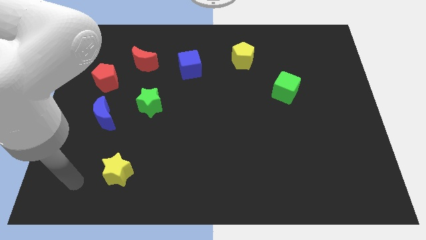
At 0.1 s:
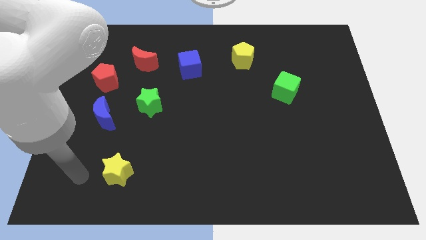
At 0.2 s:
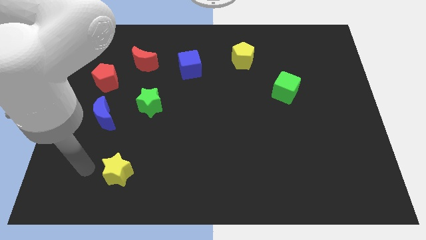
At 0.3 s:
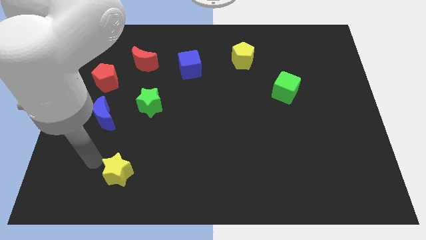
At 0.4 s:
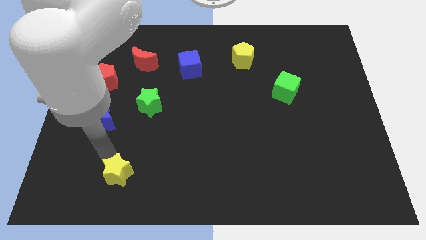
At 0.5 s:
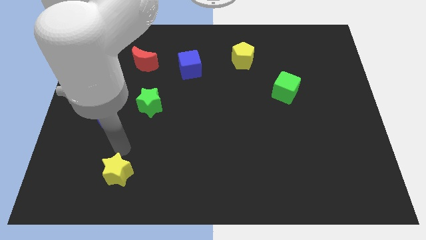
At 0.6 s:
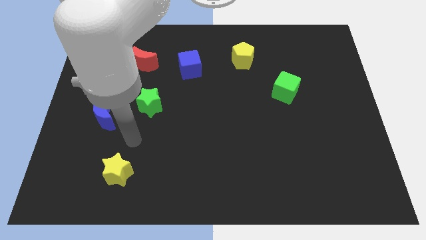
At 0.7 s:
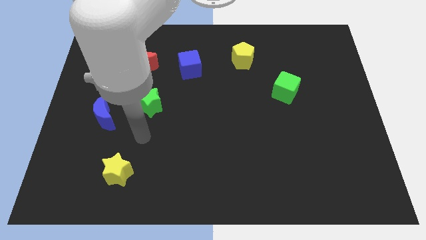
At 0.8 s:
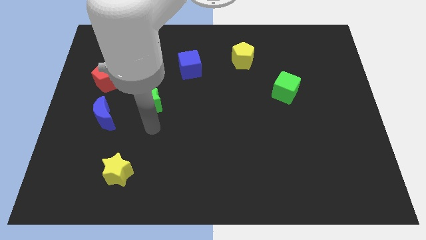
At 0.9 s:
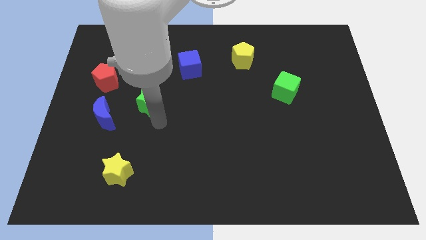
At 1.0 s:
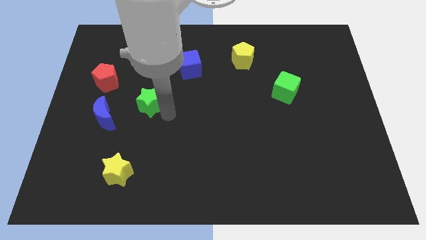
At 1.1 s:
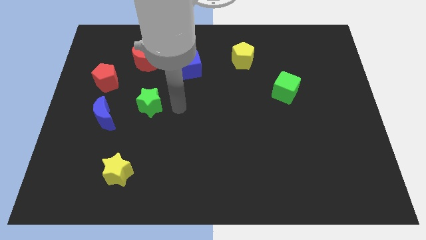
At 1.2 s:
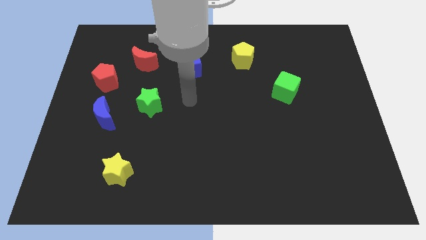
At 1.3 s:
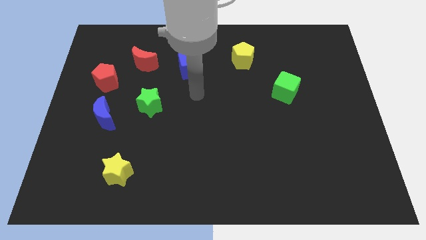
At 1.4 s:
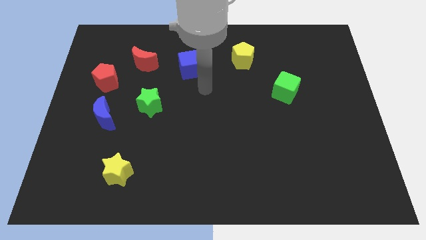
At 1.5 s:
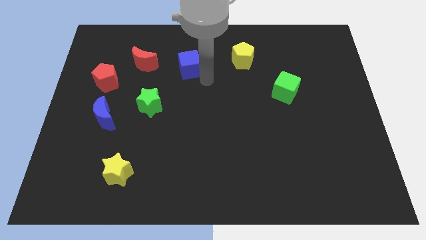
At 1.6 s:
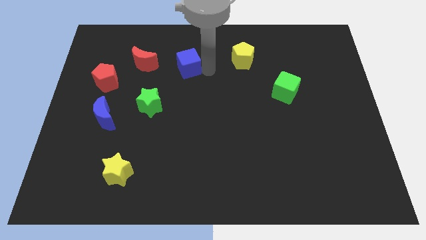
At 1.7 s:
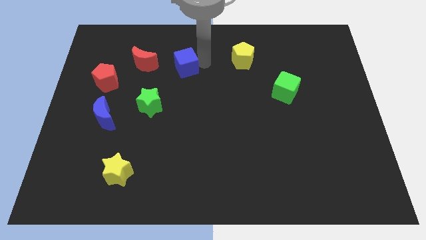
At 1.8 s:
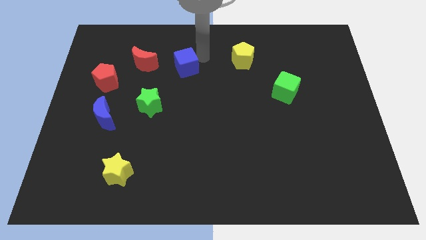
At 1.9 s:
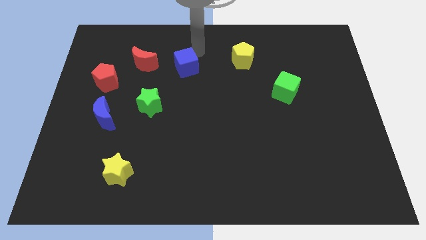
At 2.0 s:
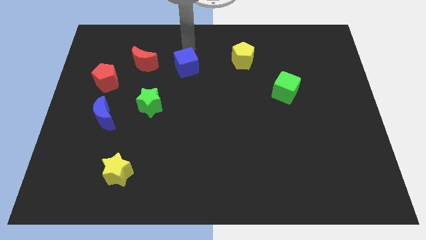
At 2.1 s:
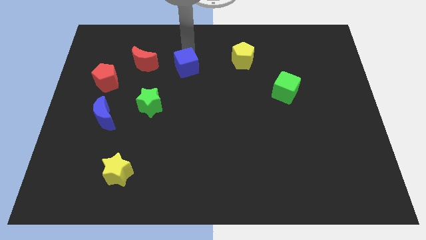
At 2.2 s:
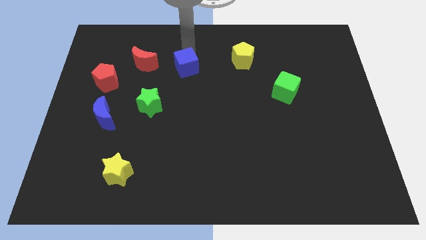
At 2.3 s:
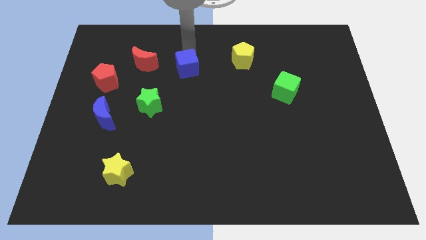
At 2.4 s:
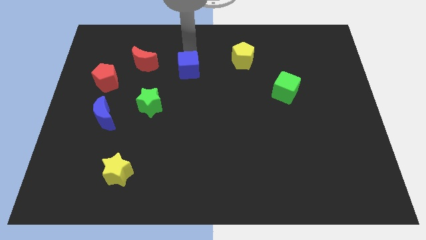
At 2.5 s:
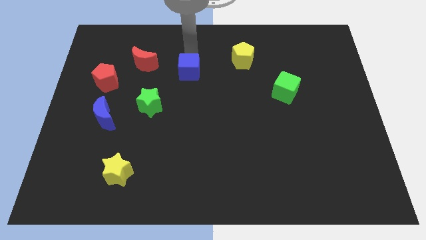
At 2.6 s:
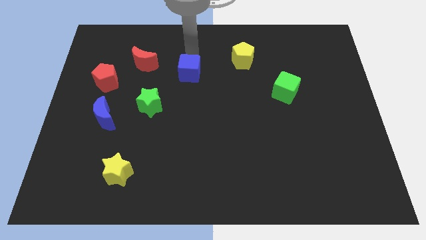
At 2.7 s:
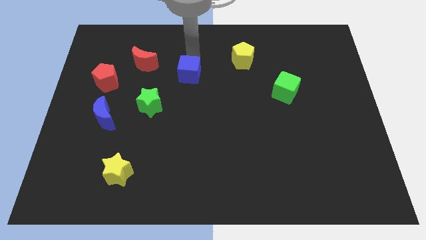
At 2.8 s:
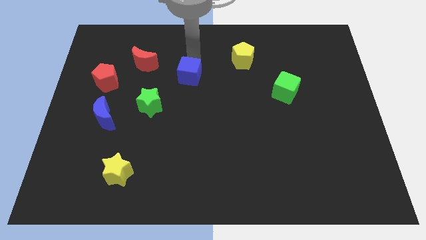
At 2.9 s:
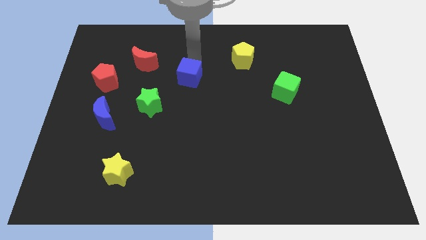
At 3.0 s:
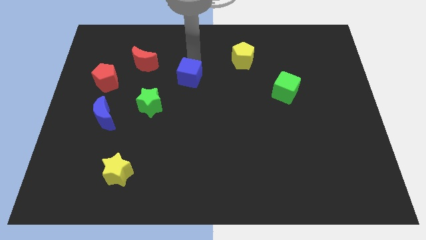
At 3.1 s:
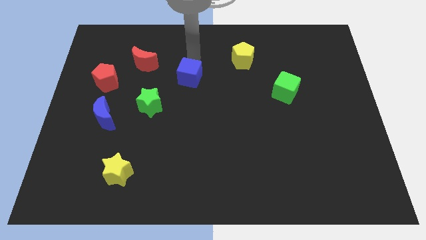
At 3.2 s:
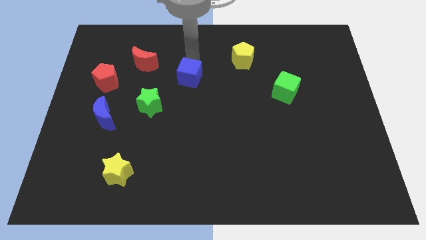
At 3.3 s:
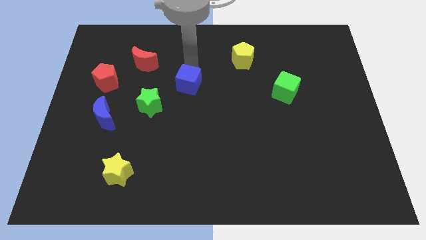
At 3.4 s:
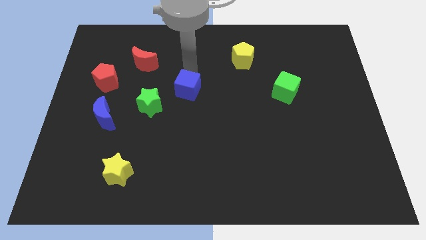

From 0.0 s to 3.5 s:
move the blue cube a little downwards

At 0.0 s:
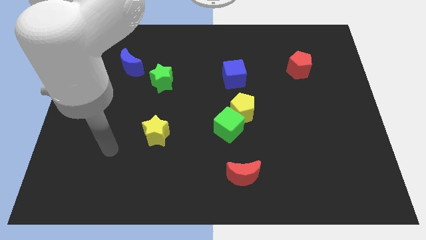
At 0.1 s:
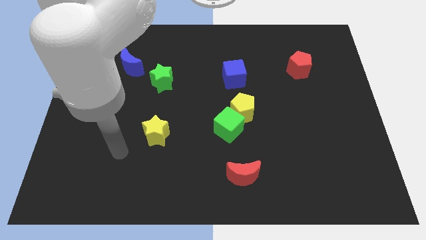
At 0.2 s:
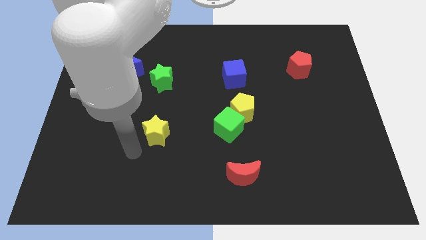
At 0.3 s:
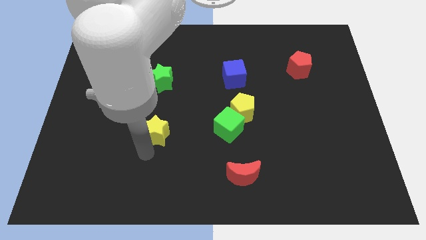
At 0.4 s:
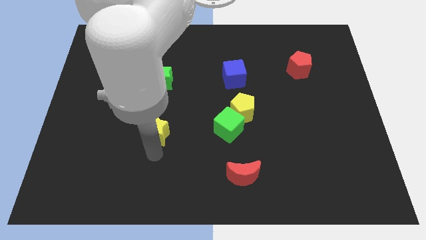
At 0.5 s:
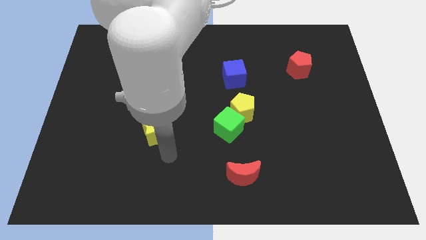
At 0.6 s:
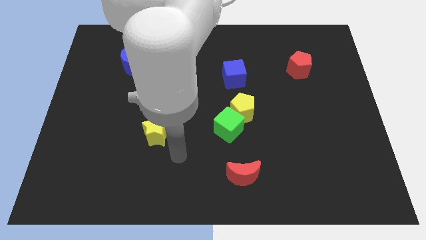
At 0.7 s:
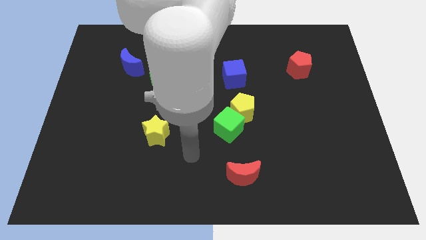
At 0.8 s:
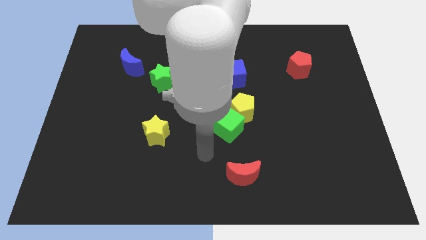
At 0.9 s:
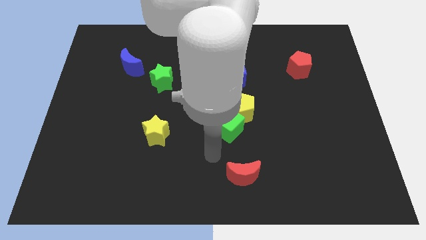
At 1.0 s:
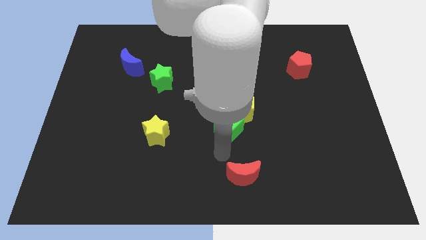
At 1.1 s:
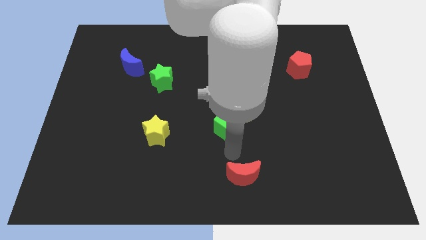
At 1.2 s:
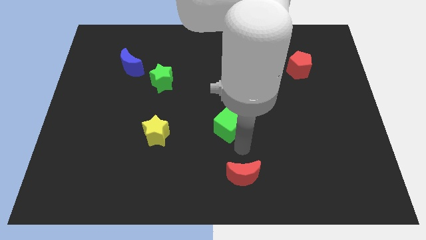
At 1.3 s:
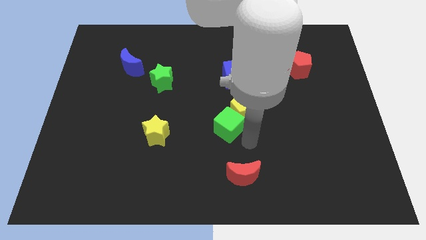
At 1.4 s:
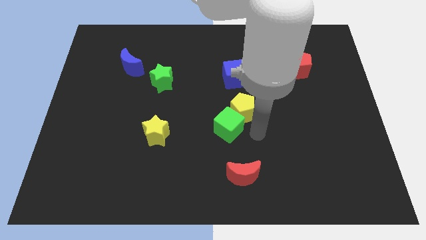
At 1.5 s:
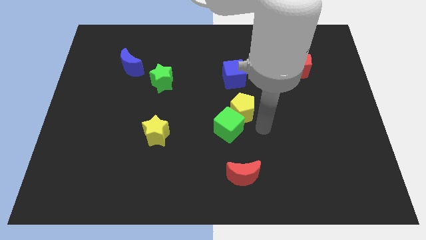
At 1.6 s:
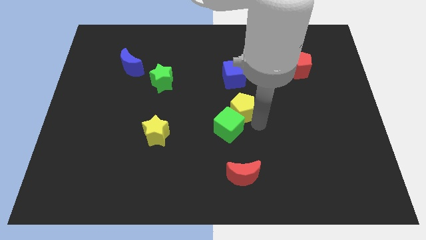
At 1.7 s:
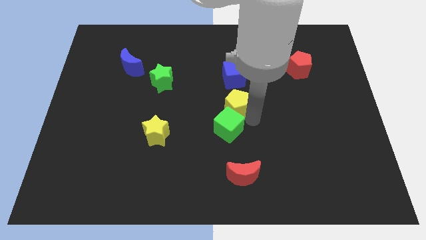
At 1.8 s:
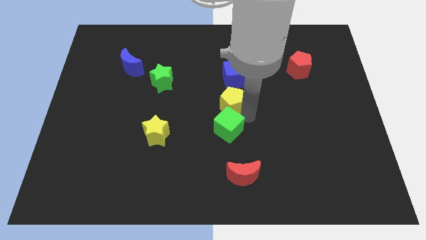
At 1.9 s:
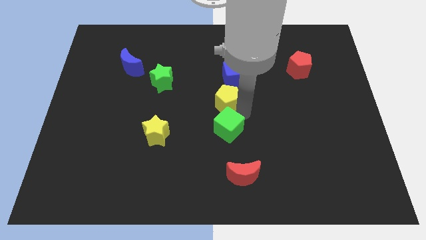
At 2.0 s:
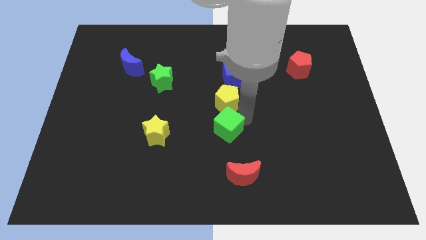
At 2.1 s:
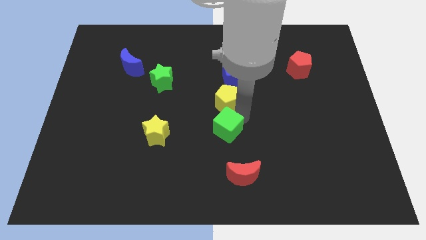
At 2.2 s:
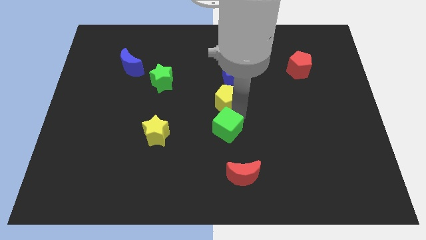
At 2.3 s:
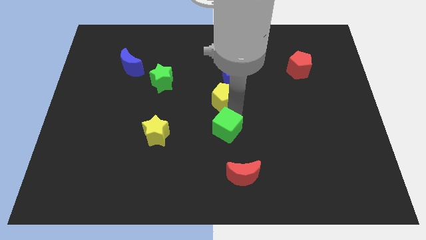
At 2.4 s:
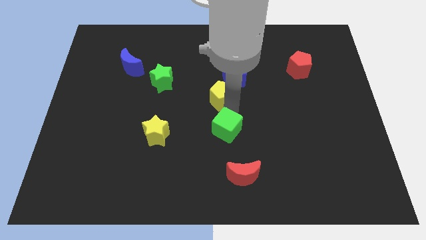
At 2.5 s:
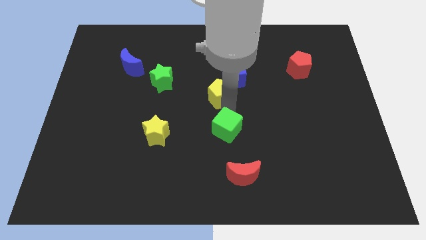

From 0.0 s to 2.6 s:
slightly move the yellow pentagon up and then left

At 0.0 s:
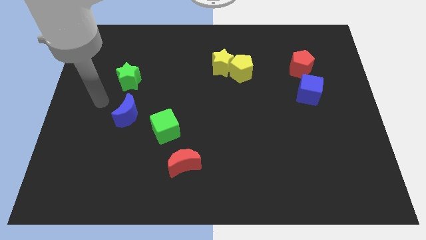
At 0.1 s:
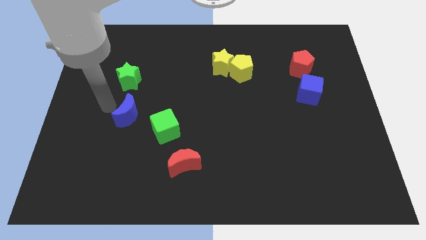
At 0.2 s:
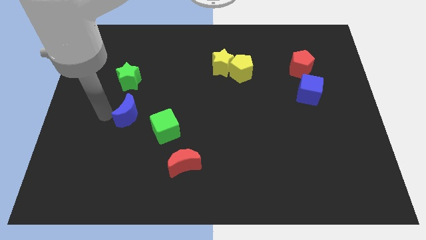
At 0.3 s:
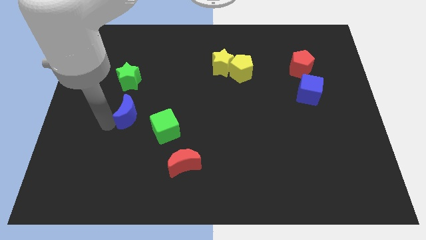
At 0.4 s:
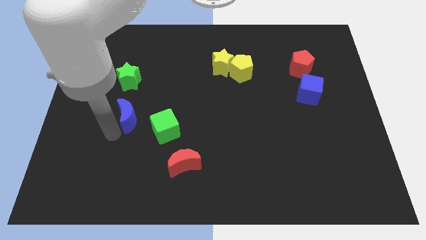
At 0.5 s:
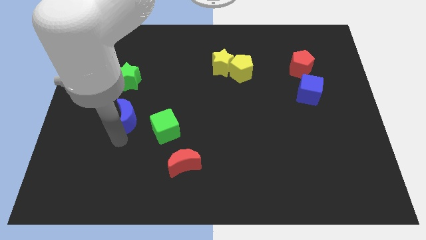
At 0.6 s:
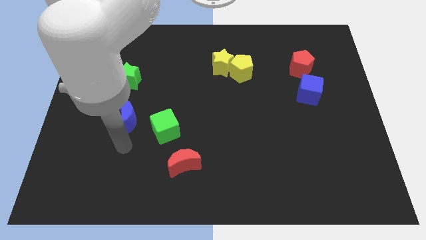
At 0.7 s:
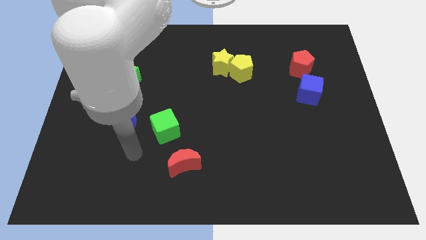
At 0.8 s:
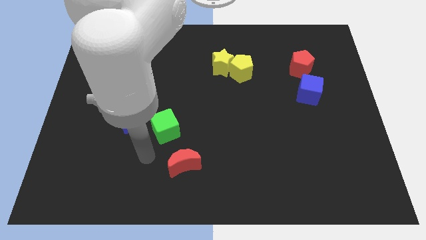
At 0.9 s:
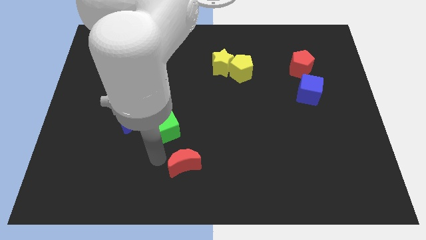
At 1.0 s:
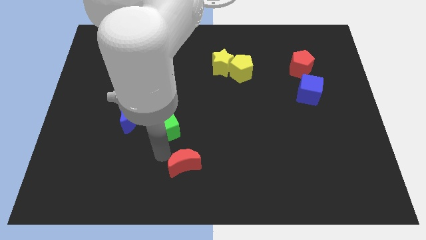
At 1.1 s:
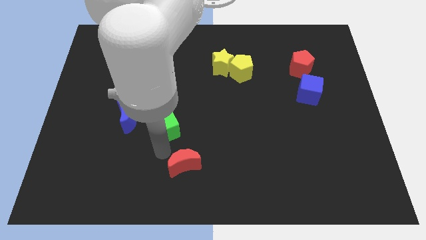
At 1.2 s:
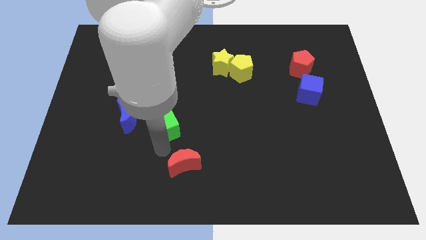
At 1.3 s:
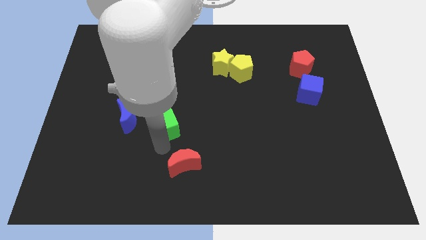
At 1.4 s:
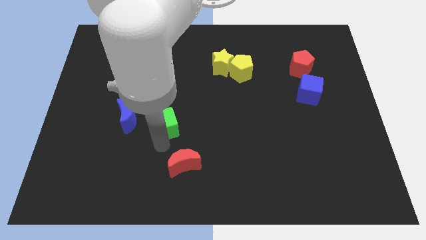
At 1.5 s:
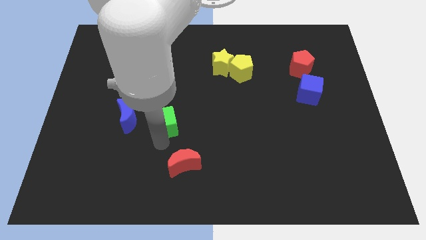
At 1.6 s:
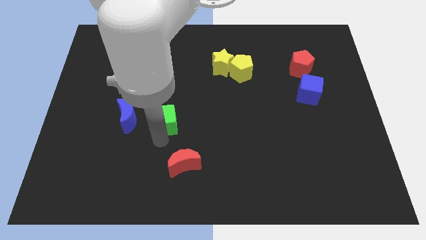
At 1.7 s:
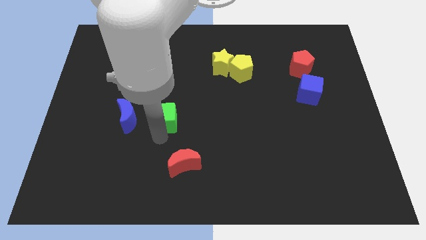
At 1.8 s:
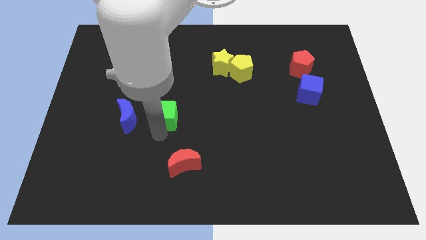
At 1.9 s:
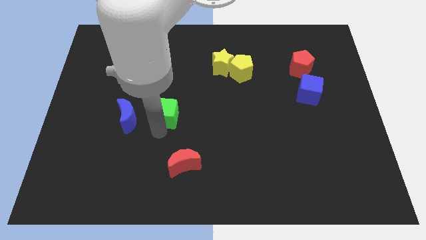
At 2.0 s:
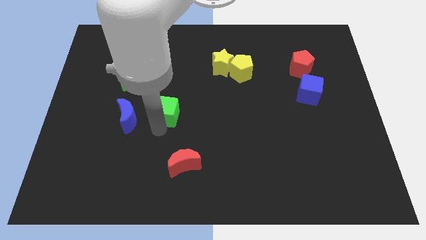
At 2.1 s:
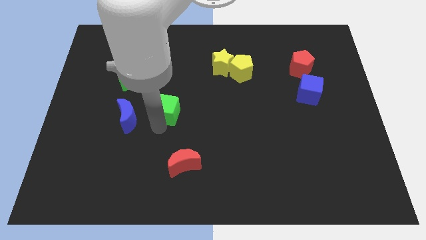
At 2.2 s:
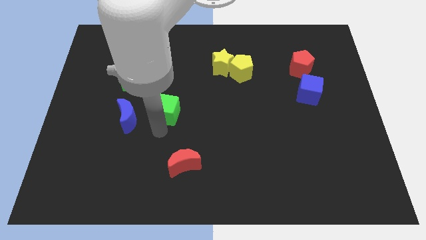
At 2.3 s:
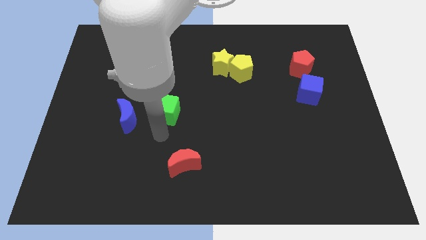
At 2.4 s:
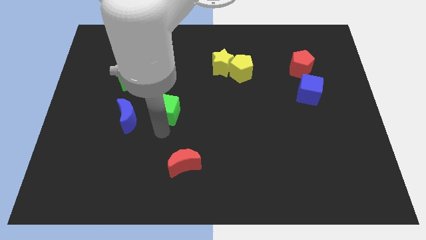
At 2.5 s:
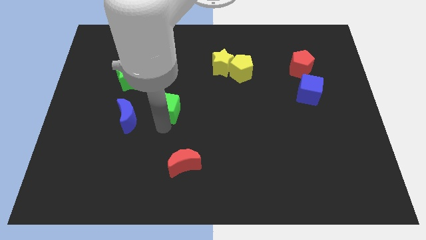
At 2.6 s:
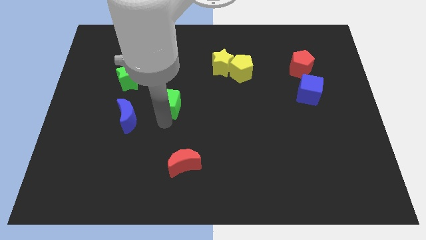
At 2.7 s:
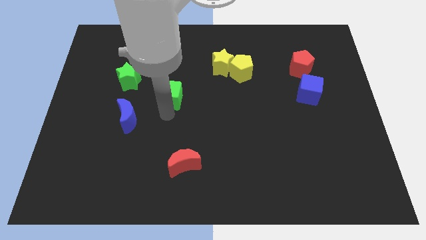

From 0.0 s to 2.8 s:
push the green cube upwards a bit
